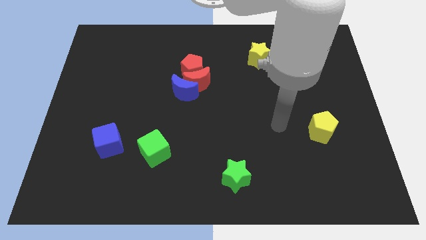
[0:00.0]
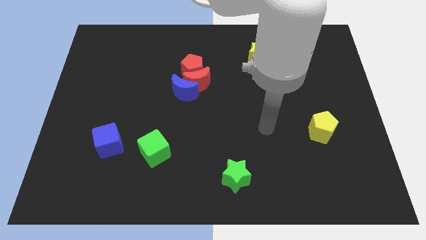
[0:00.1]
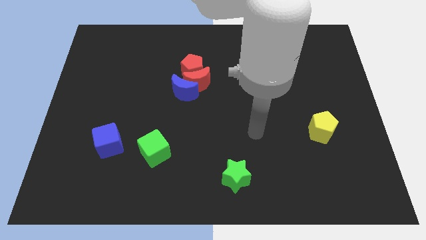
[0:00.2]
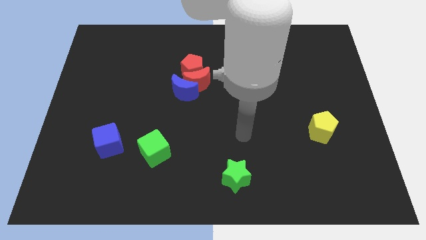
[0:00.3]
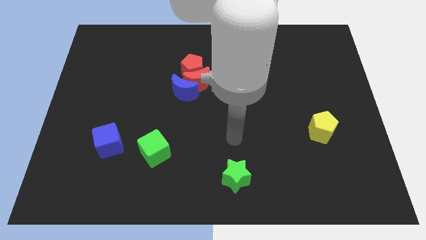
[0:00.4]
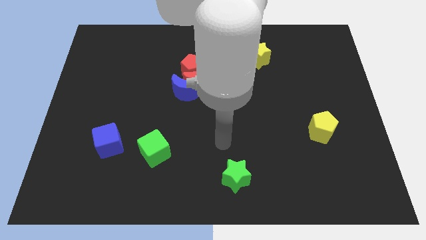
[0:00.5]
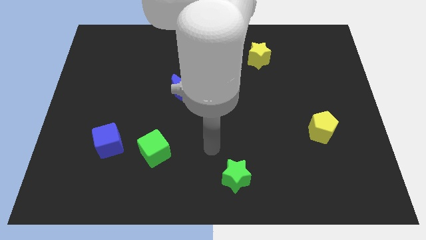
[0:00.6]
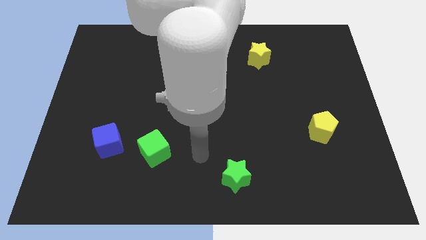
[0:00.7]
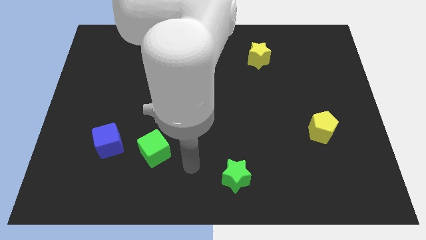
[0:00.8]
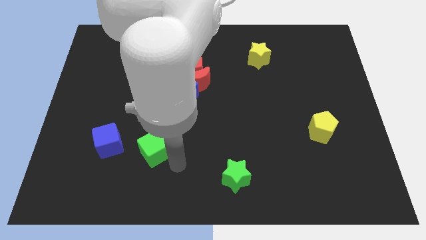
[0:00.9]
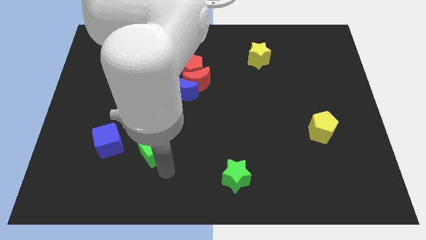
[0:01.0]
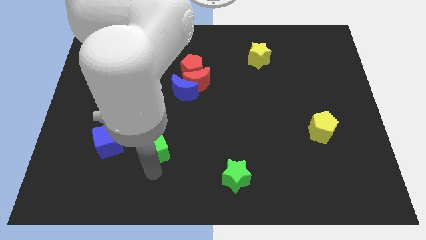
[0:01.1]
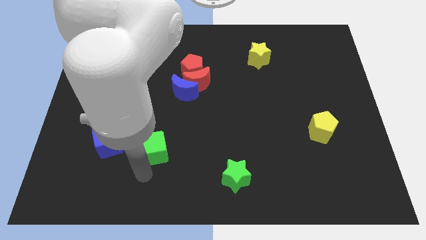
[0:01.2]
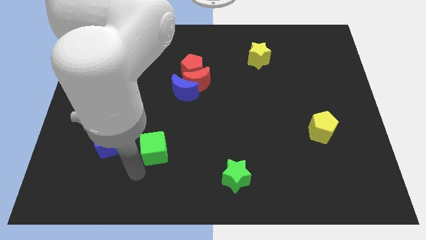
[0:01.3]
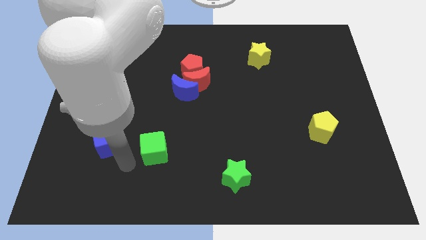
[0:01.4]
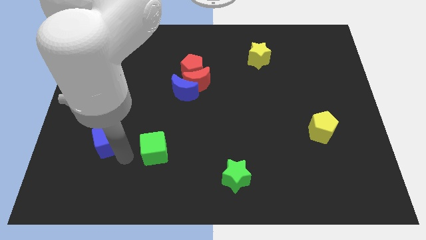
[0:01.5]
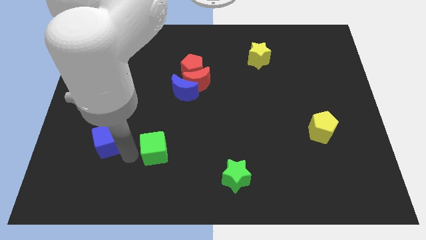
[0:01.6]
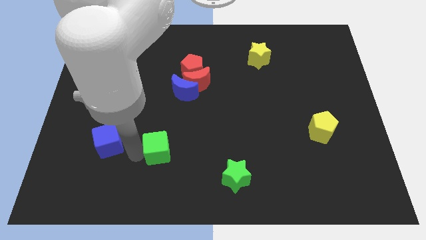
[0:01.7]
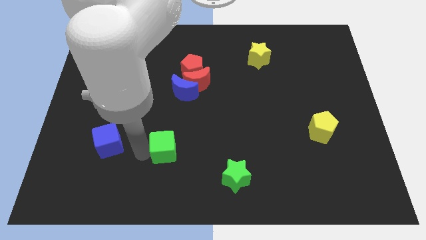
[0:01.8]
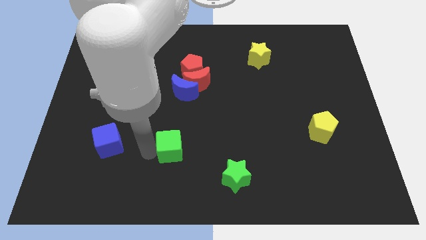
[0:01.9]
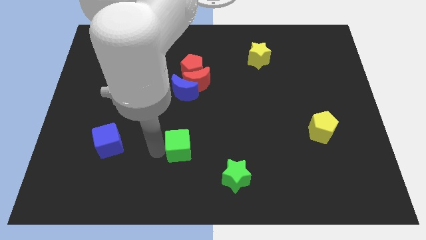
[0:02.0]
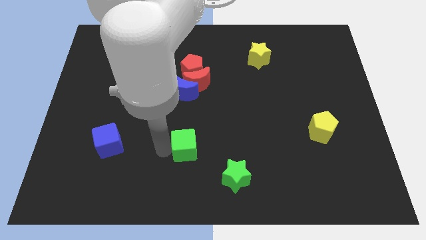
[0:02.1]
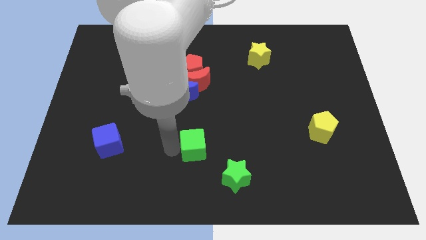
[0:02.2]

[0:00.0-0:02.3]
push the green cube slightly to the right

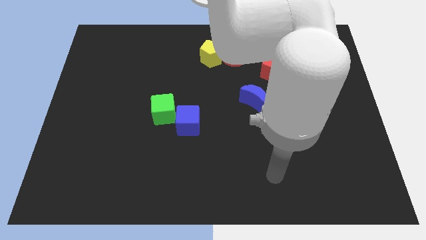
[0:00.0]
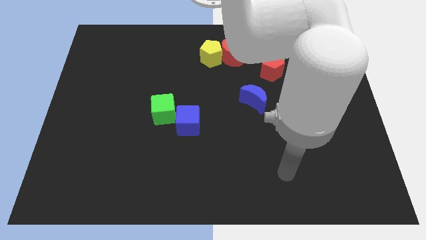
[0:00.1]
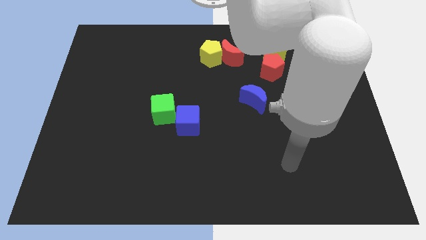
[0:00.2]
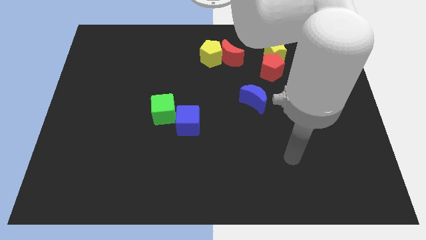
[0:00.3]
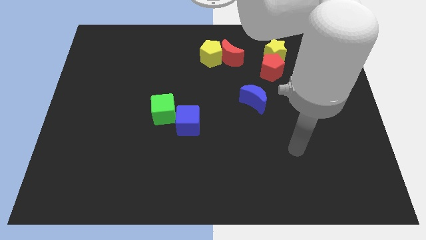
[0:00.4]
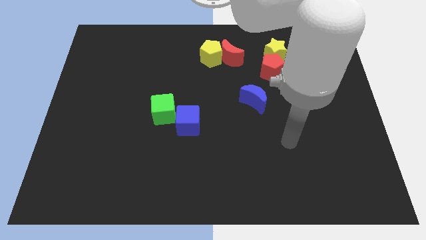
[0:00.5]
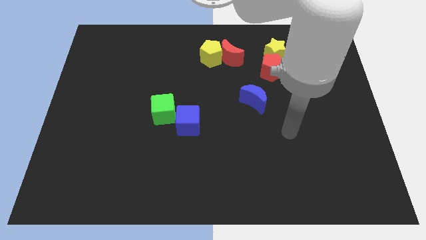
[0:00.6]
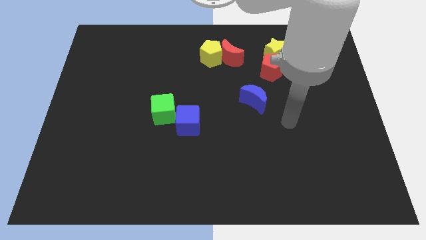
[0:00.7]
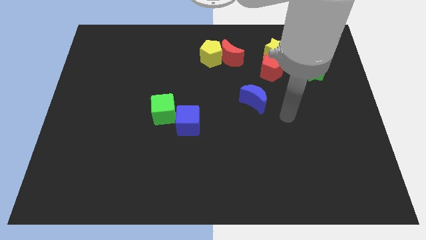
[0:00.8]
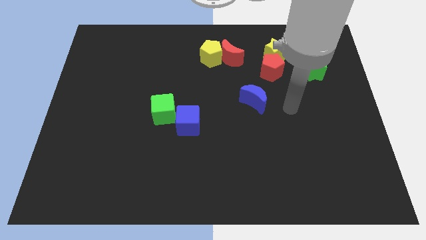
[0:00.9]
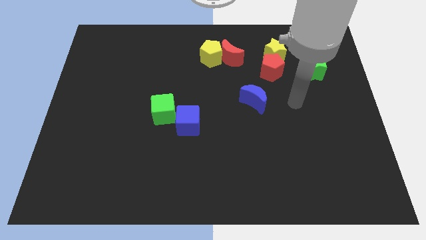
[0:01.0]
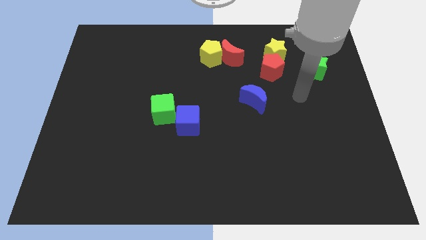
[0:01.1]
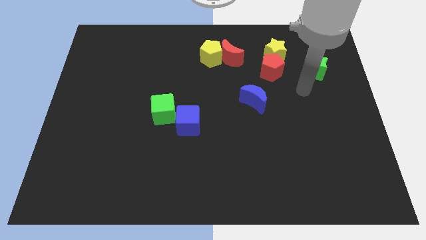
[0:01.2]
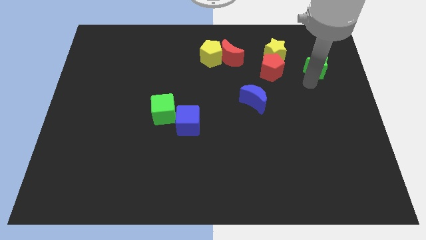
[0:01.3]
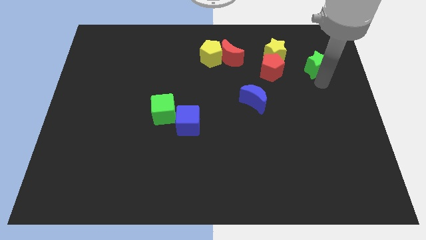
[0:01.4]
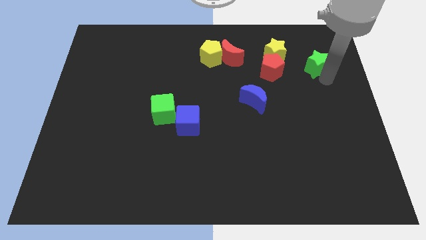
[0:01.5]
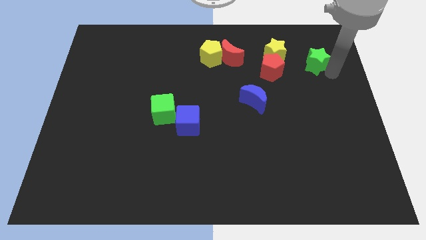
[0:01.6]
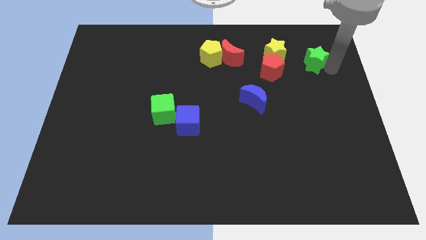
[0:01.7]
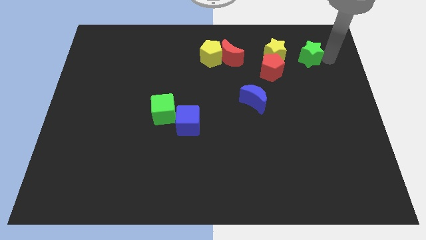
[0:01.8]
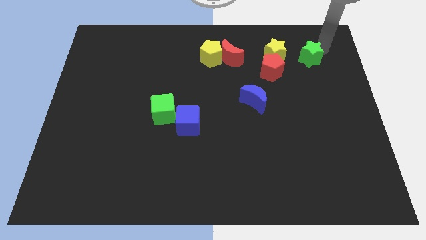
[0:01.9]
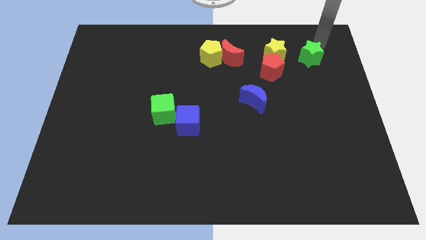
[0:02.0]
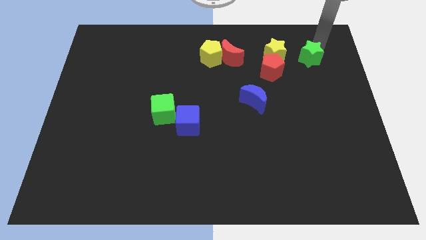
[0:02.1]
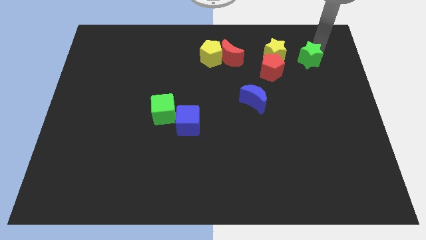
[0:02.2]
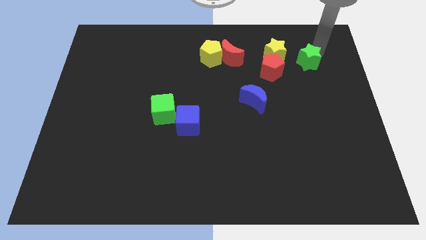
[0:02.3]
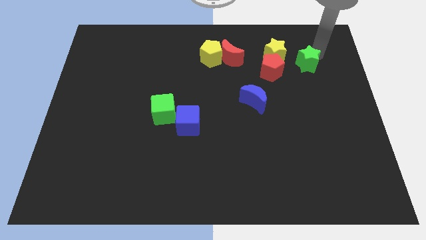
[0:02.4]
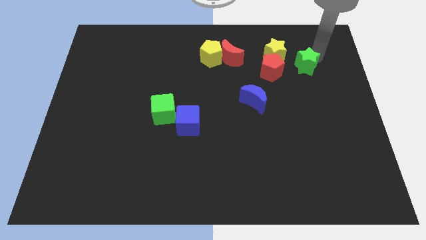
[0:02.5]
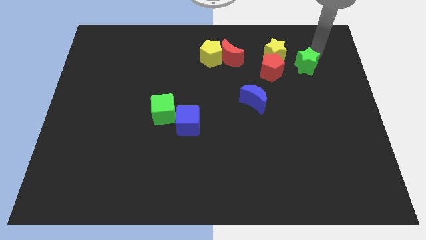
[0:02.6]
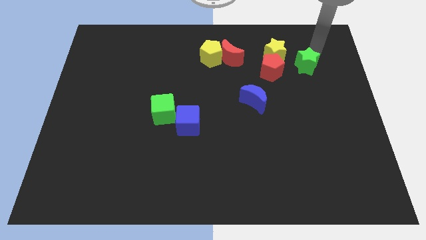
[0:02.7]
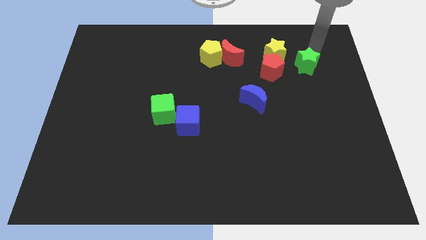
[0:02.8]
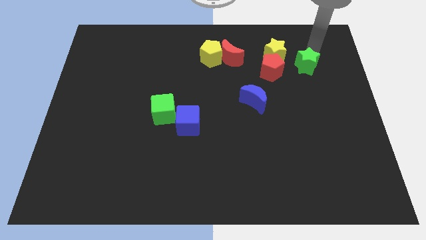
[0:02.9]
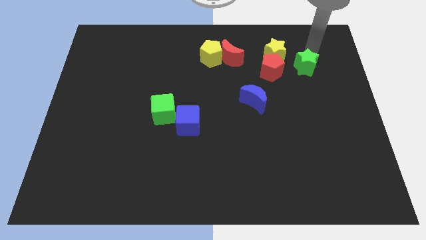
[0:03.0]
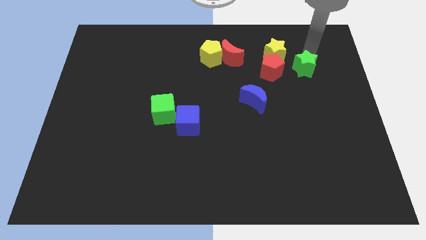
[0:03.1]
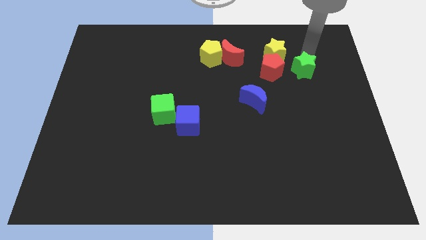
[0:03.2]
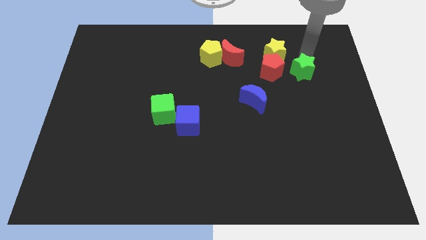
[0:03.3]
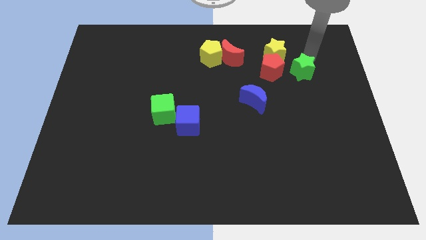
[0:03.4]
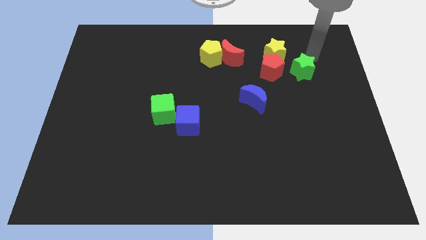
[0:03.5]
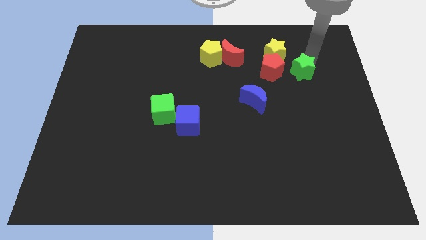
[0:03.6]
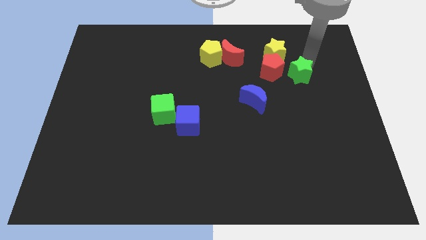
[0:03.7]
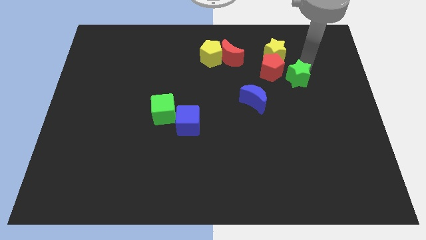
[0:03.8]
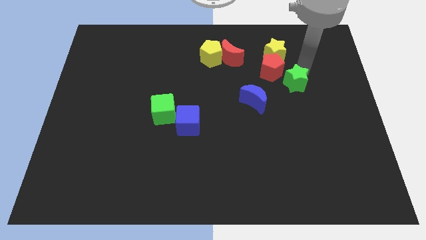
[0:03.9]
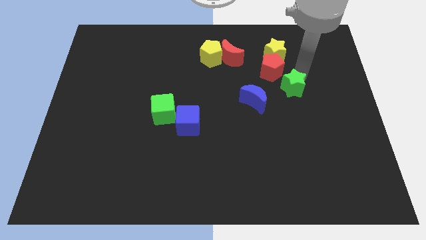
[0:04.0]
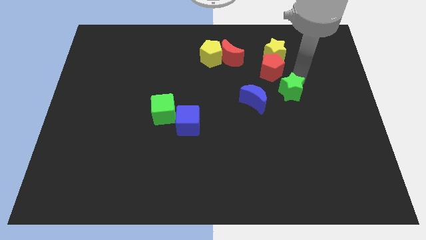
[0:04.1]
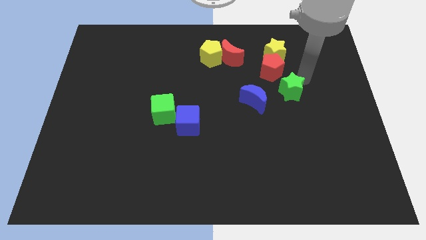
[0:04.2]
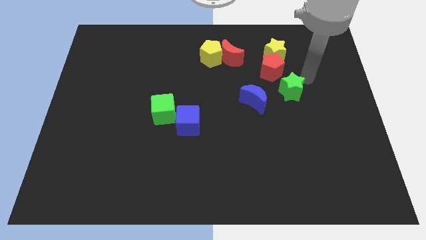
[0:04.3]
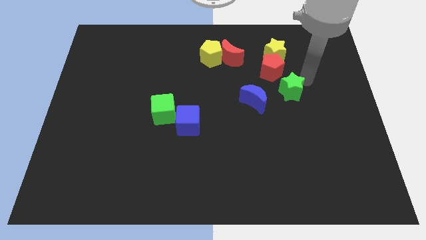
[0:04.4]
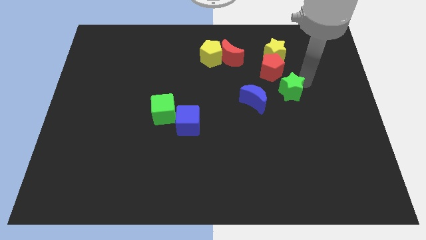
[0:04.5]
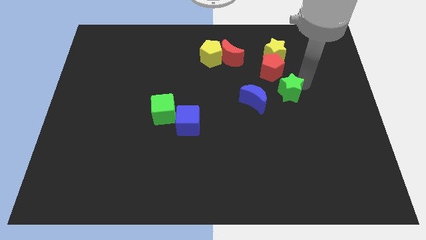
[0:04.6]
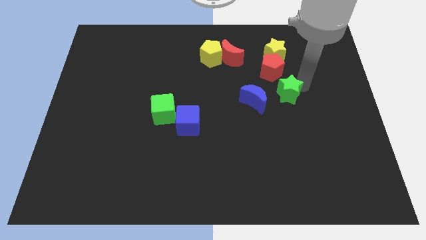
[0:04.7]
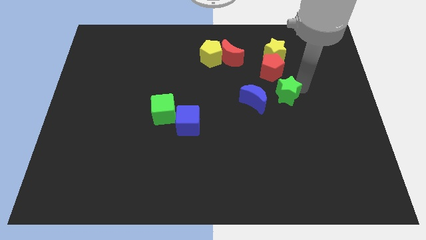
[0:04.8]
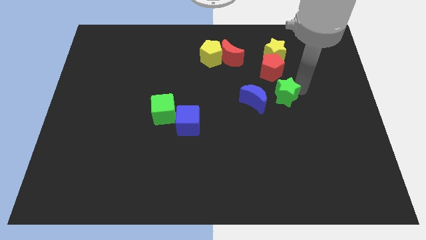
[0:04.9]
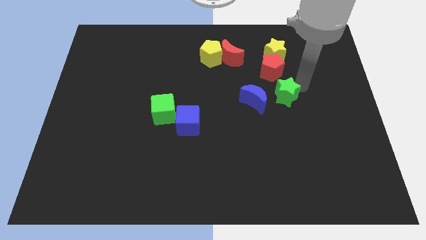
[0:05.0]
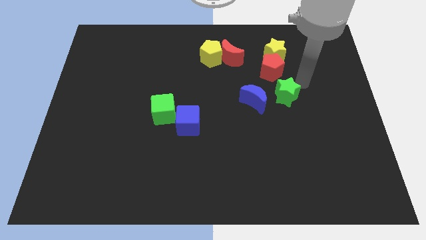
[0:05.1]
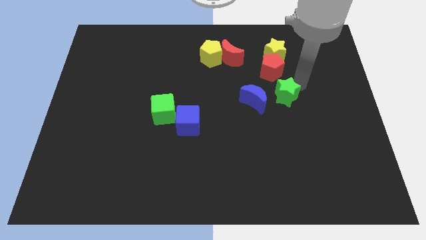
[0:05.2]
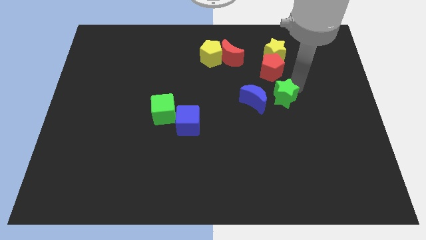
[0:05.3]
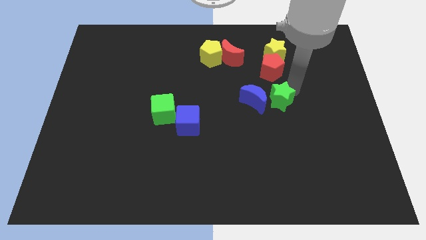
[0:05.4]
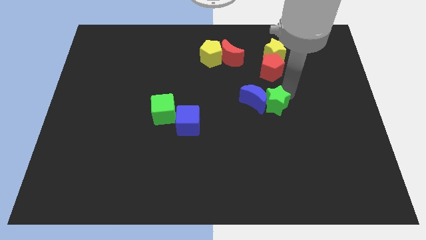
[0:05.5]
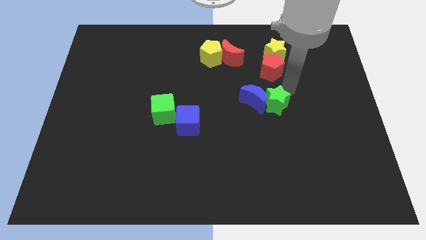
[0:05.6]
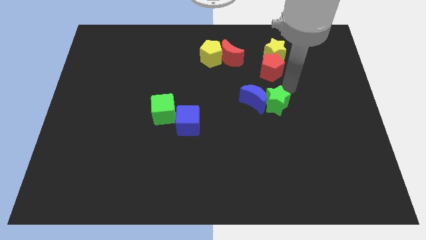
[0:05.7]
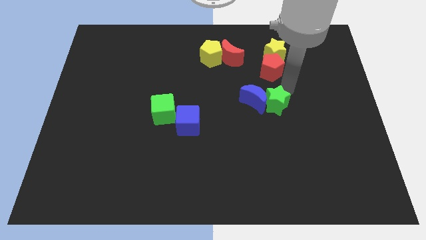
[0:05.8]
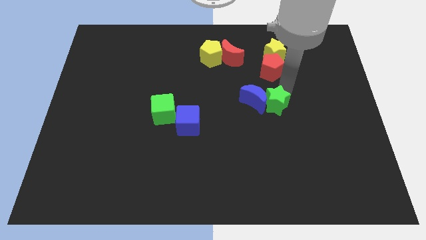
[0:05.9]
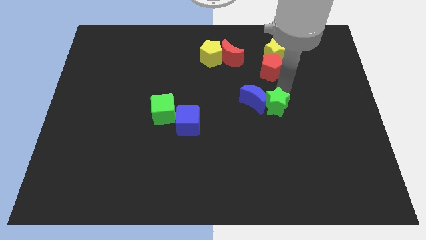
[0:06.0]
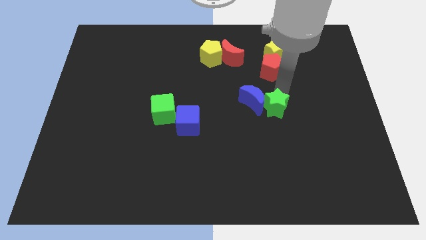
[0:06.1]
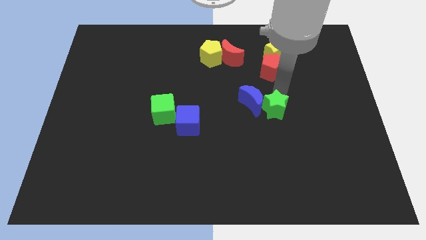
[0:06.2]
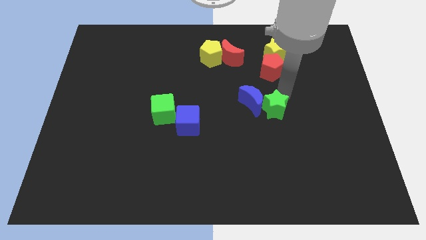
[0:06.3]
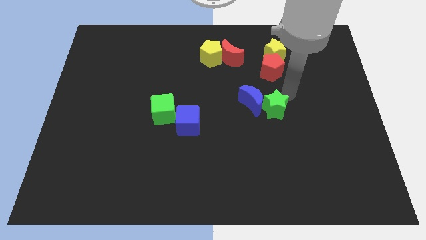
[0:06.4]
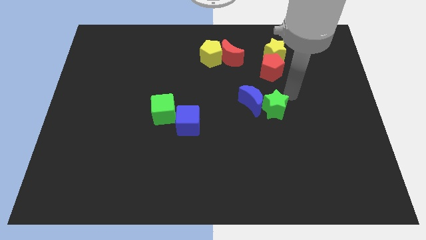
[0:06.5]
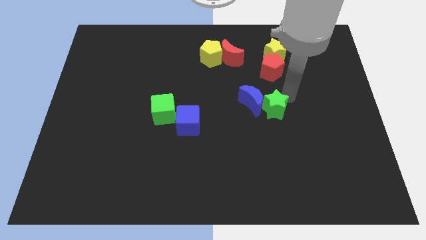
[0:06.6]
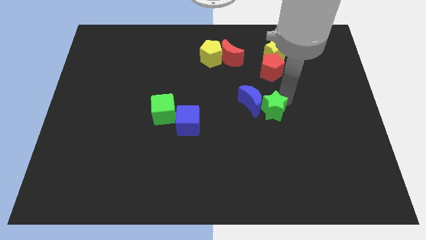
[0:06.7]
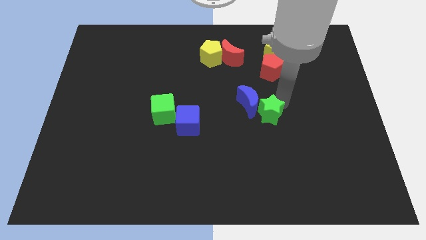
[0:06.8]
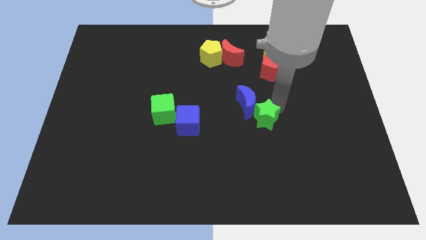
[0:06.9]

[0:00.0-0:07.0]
slide the green star diagonally down and left
